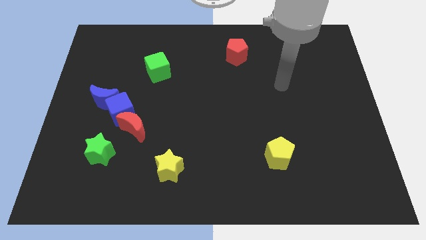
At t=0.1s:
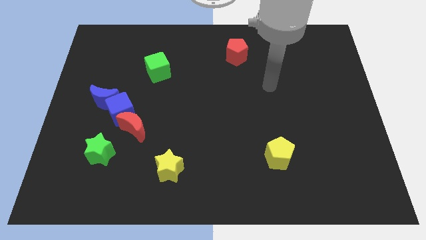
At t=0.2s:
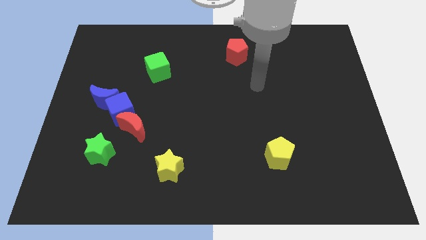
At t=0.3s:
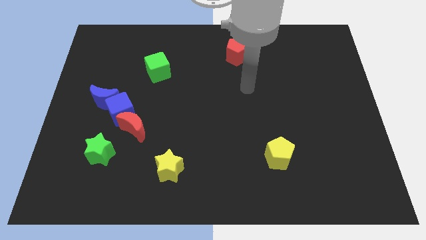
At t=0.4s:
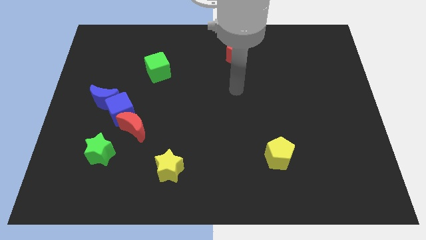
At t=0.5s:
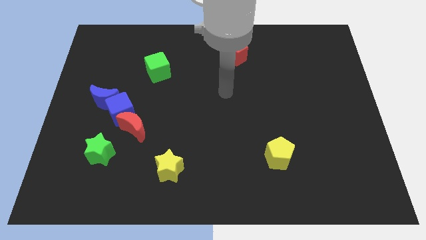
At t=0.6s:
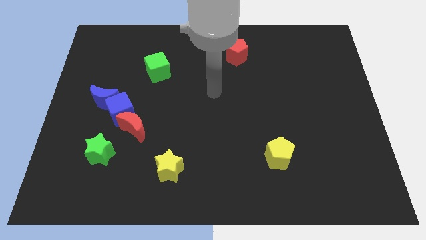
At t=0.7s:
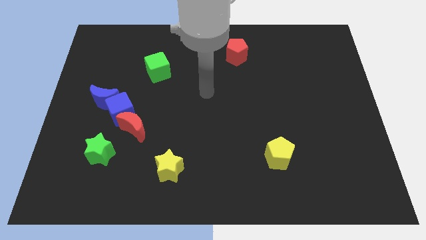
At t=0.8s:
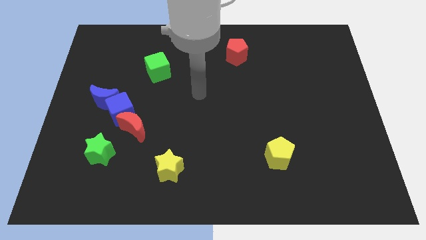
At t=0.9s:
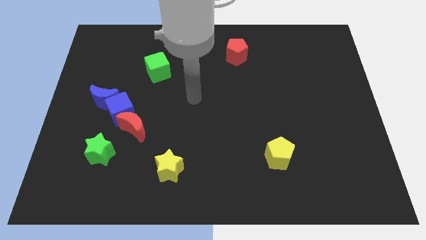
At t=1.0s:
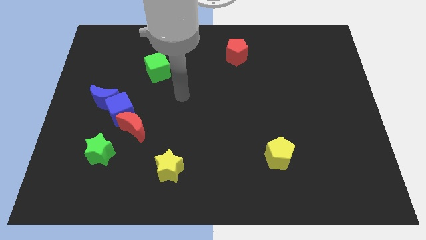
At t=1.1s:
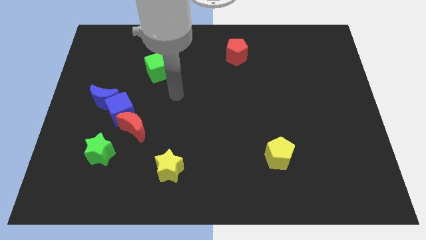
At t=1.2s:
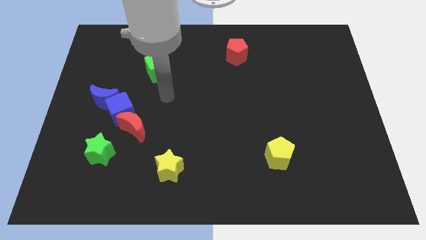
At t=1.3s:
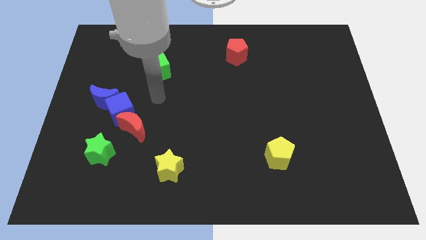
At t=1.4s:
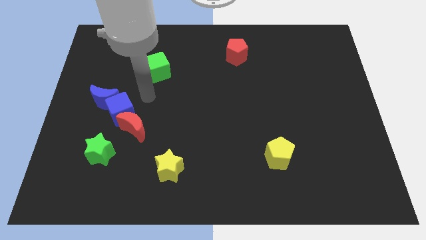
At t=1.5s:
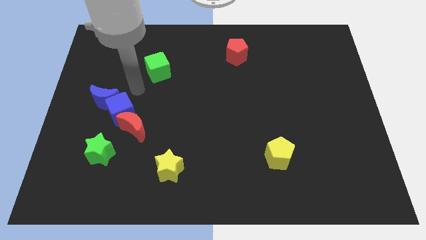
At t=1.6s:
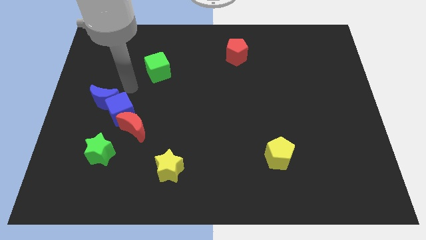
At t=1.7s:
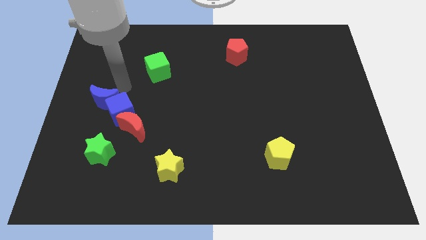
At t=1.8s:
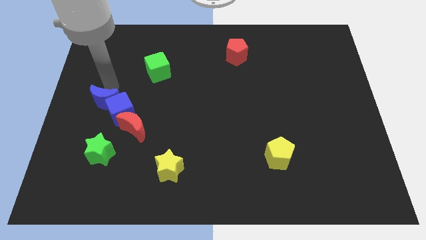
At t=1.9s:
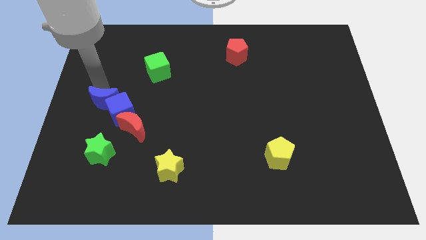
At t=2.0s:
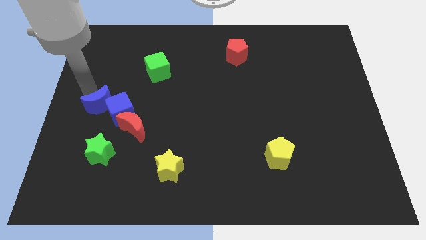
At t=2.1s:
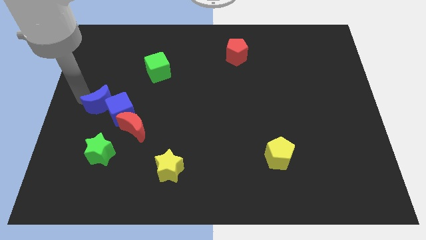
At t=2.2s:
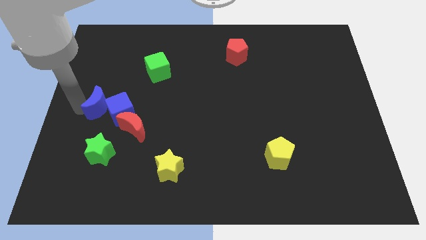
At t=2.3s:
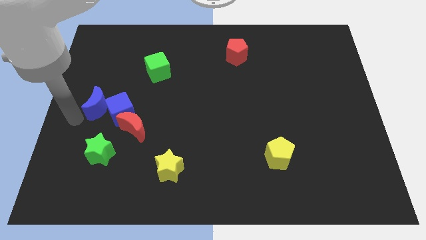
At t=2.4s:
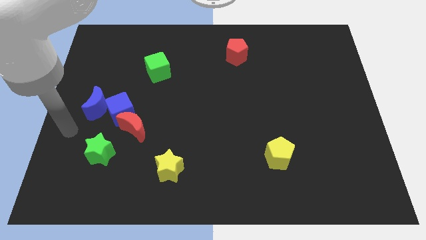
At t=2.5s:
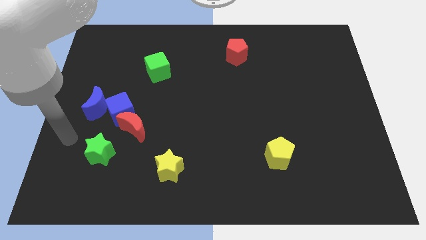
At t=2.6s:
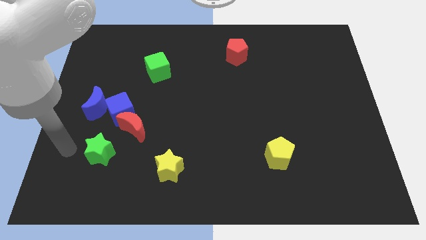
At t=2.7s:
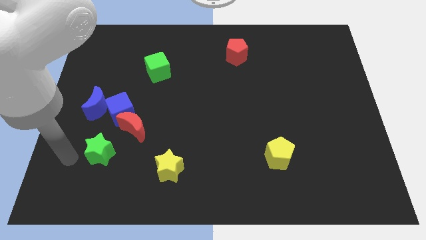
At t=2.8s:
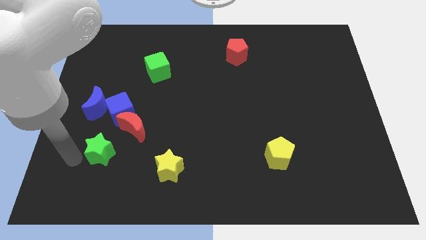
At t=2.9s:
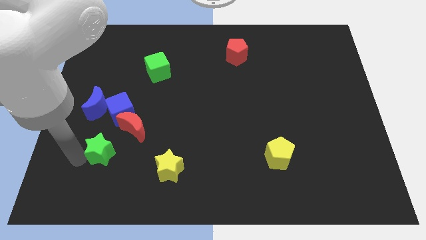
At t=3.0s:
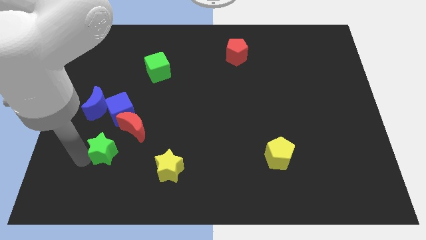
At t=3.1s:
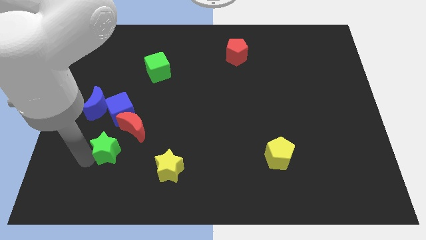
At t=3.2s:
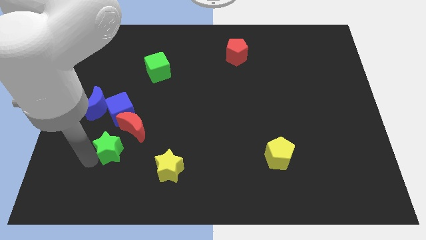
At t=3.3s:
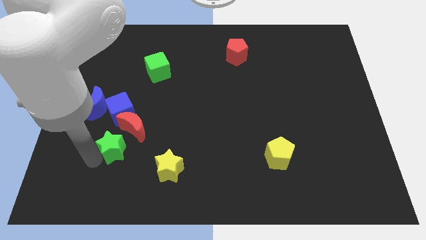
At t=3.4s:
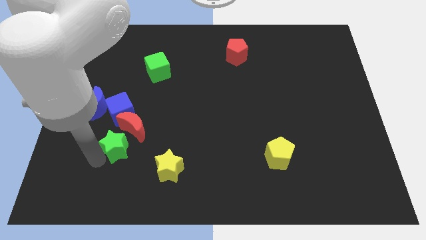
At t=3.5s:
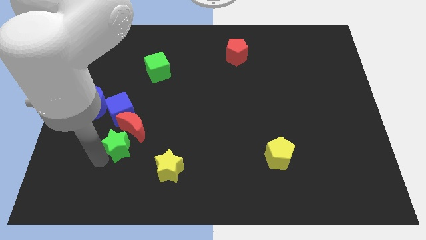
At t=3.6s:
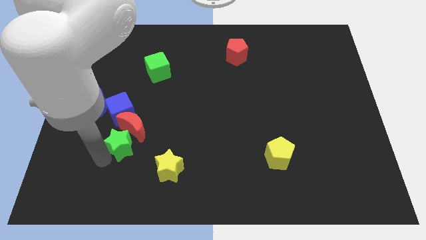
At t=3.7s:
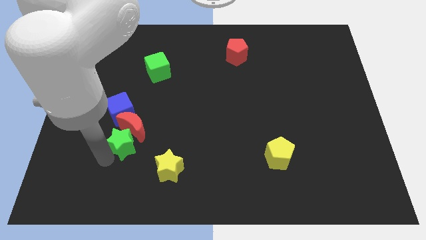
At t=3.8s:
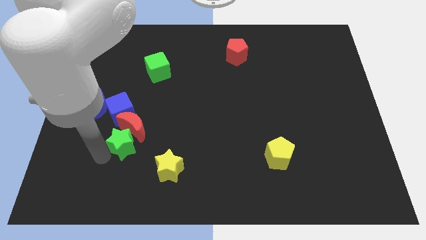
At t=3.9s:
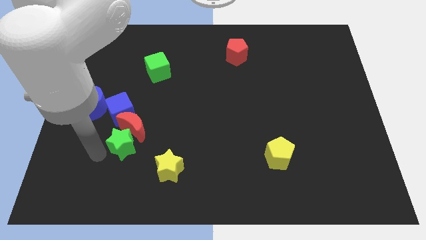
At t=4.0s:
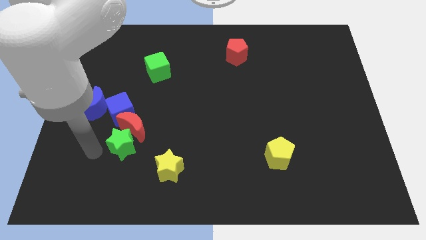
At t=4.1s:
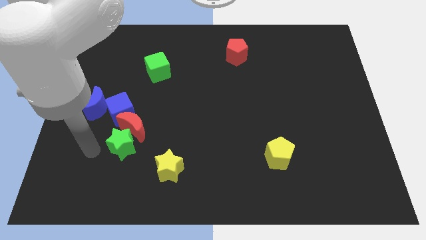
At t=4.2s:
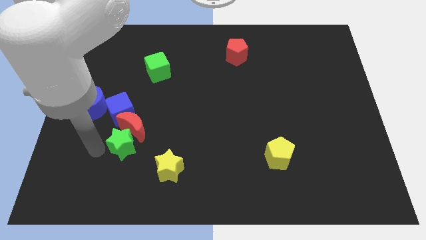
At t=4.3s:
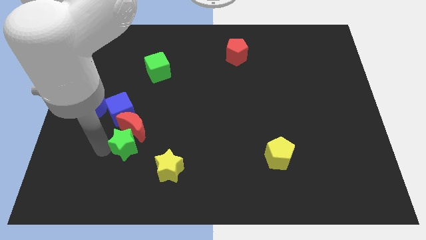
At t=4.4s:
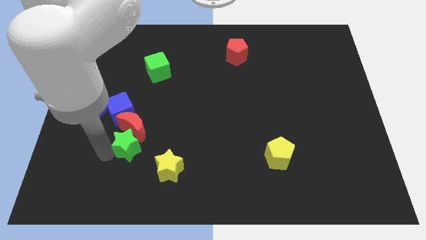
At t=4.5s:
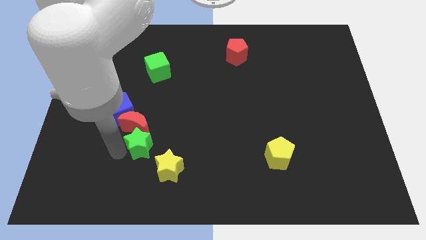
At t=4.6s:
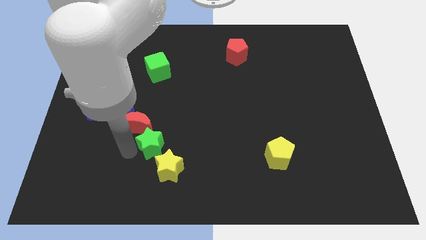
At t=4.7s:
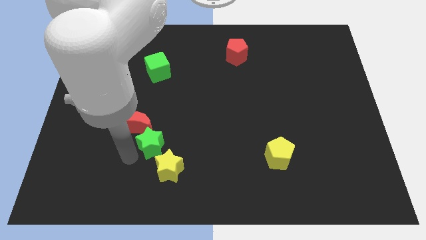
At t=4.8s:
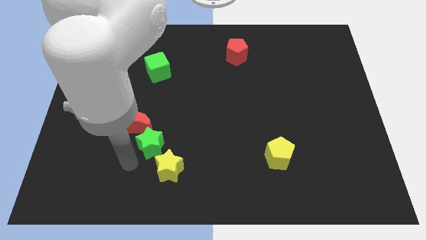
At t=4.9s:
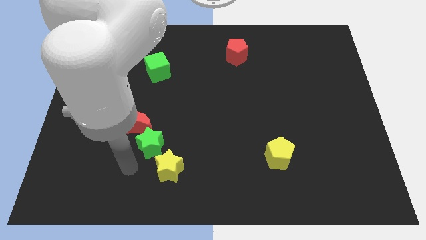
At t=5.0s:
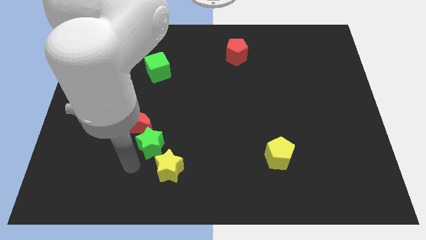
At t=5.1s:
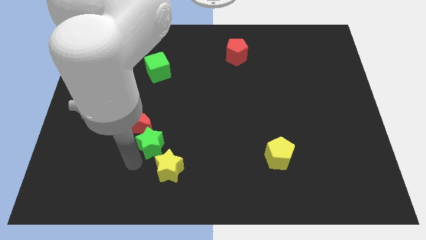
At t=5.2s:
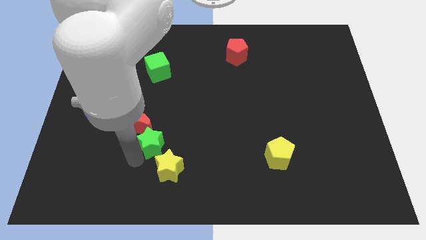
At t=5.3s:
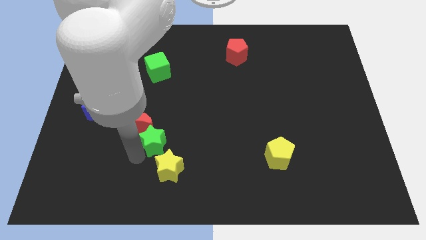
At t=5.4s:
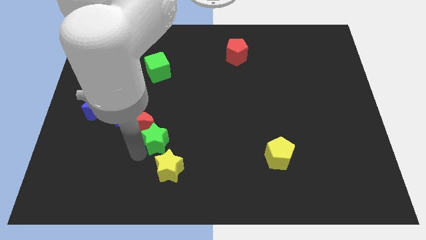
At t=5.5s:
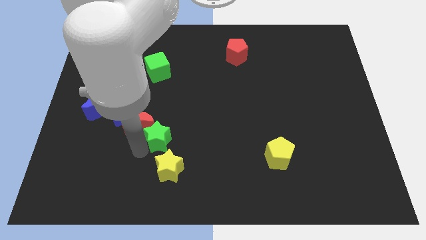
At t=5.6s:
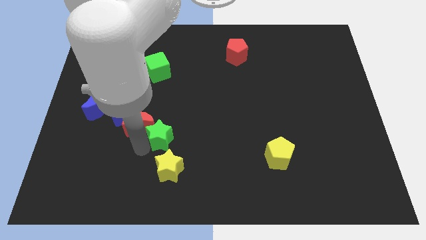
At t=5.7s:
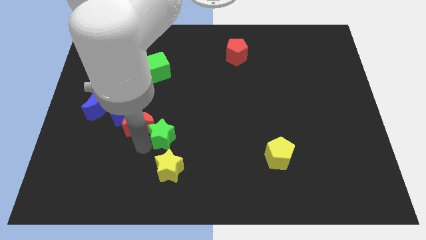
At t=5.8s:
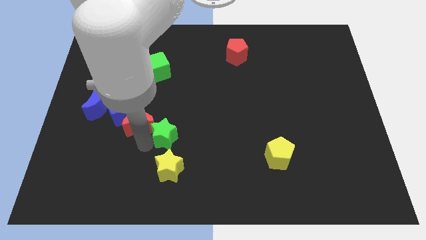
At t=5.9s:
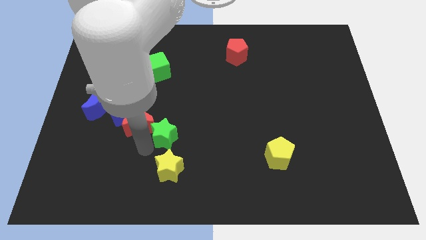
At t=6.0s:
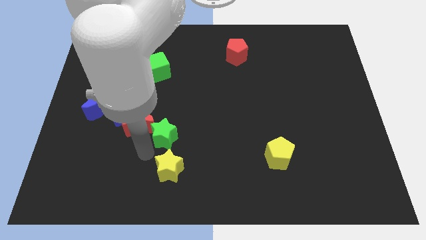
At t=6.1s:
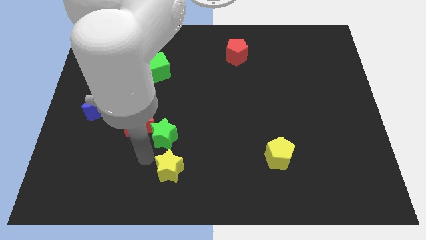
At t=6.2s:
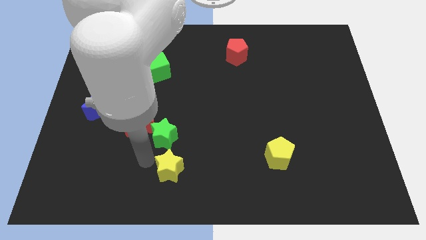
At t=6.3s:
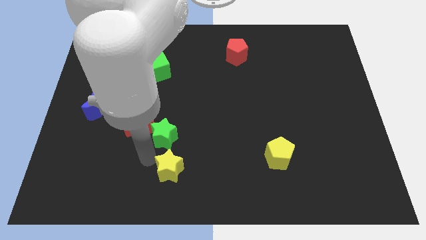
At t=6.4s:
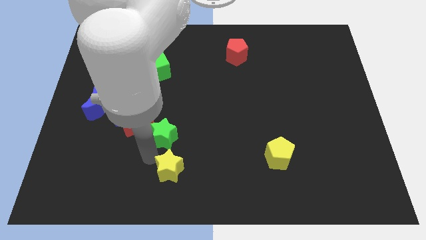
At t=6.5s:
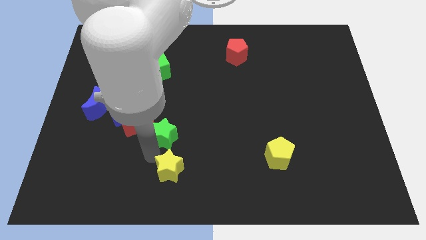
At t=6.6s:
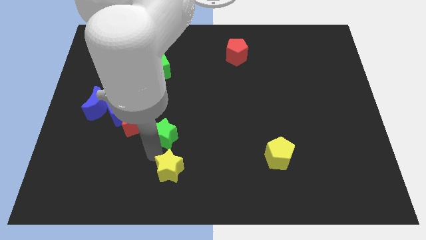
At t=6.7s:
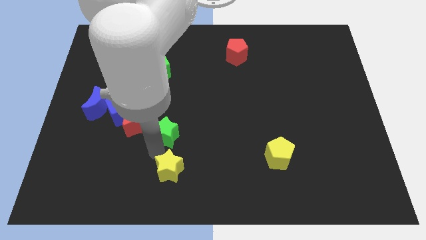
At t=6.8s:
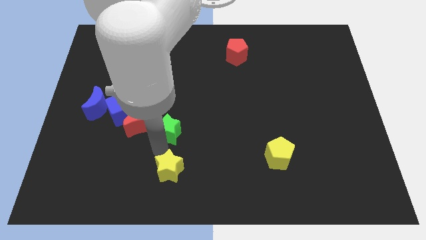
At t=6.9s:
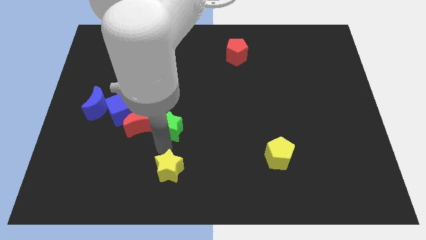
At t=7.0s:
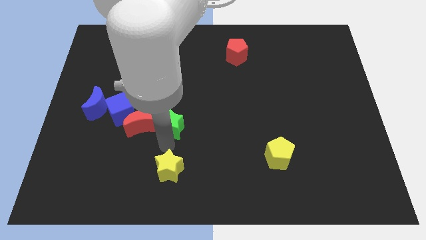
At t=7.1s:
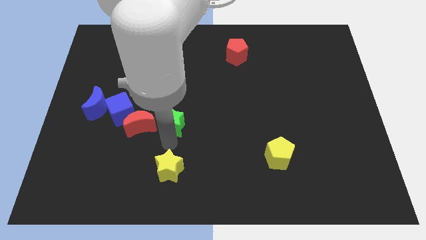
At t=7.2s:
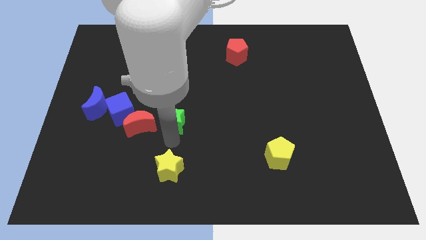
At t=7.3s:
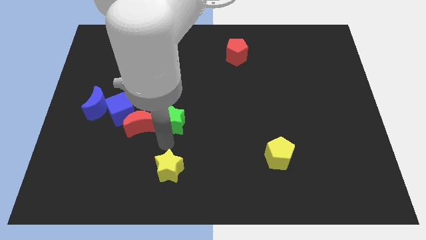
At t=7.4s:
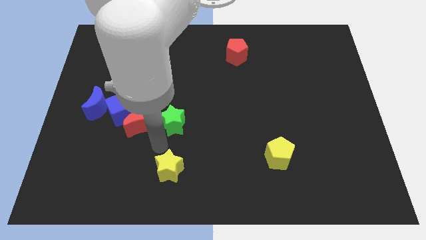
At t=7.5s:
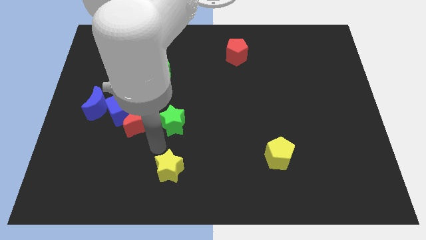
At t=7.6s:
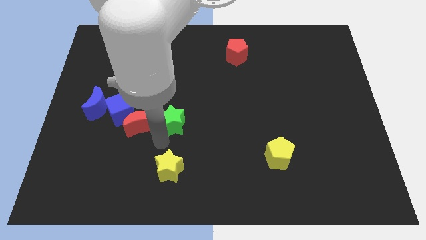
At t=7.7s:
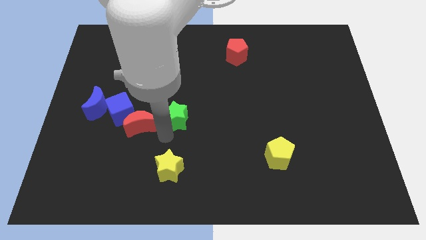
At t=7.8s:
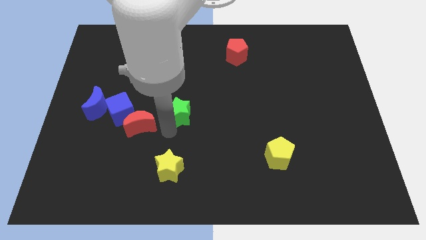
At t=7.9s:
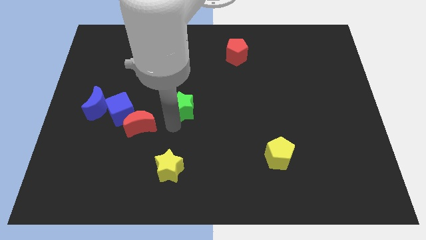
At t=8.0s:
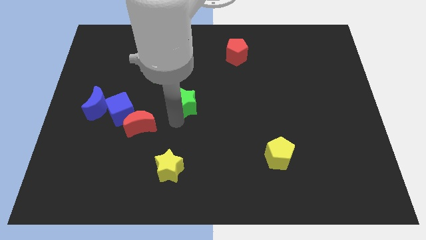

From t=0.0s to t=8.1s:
push the green star up and then right
